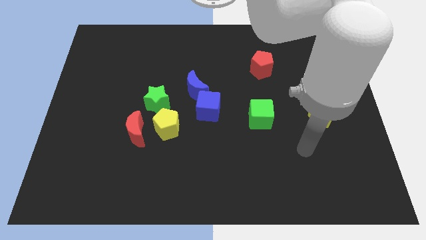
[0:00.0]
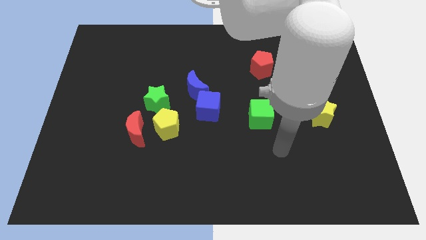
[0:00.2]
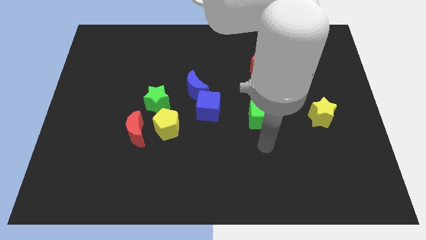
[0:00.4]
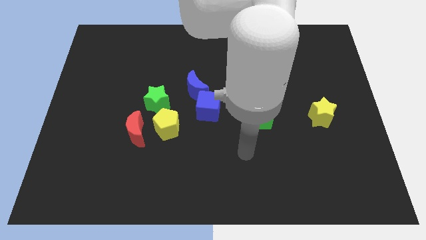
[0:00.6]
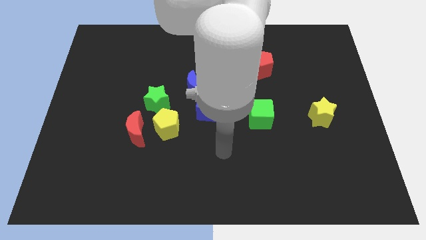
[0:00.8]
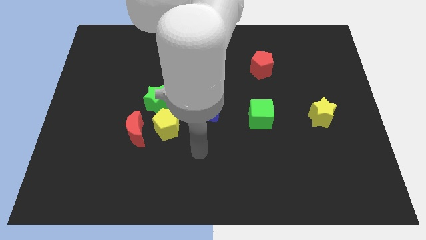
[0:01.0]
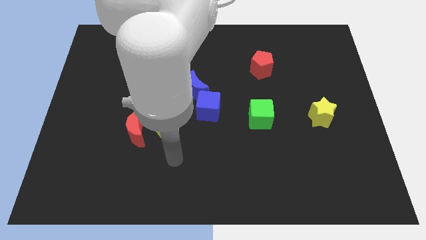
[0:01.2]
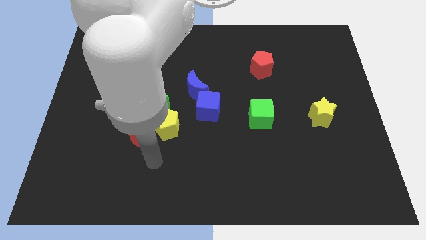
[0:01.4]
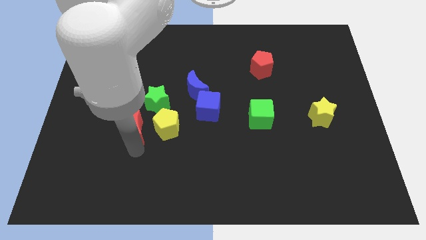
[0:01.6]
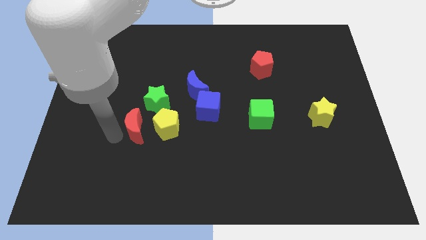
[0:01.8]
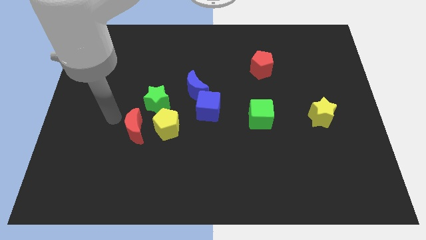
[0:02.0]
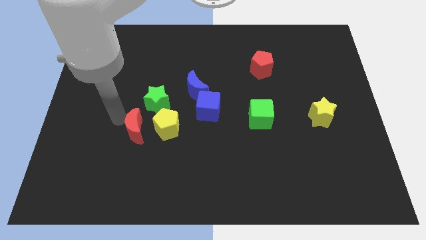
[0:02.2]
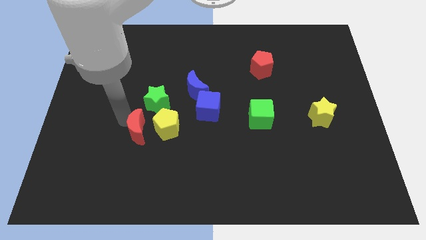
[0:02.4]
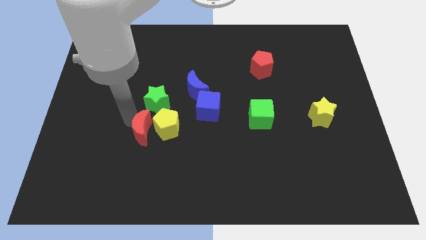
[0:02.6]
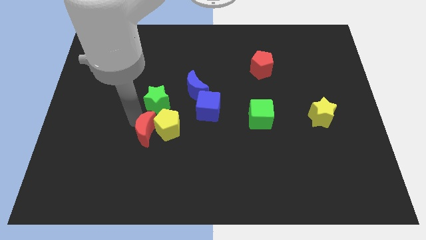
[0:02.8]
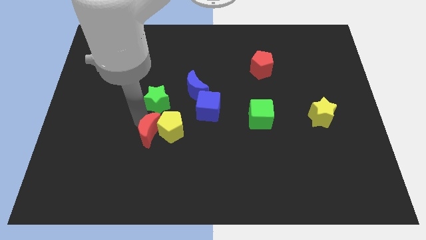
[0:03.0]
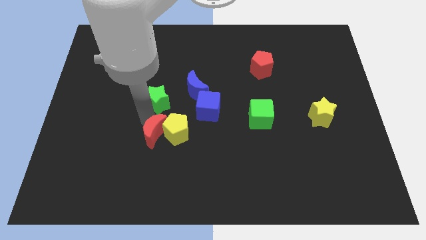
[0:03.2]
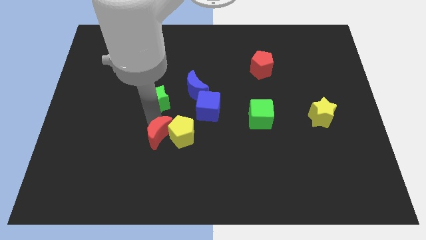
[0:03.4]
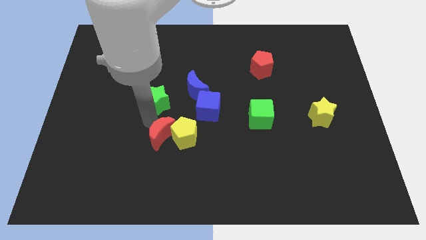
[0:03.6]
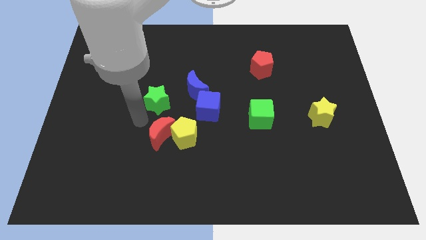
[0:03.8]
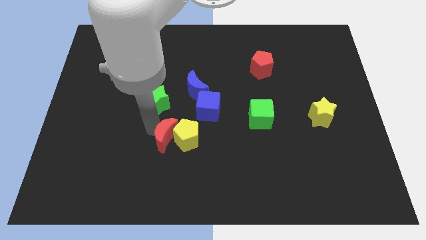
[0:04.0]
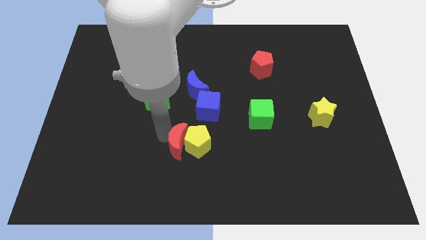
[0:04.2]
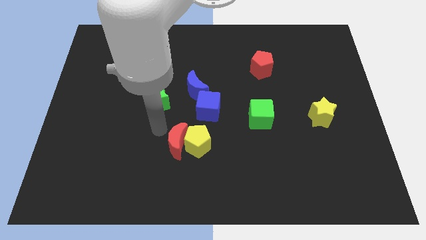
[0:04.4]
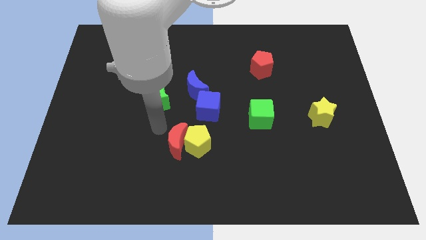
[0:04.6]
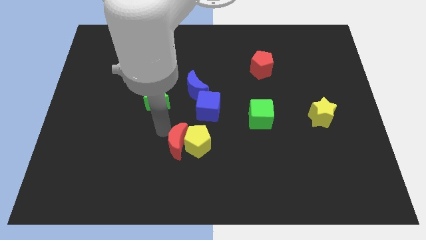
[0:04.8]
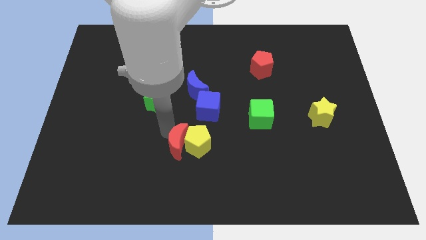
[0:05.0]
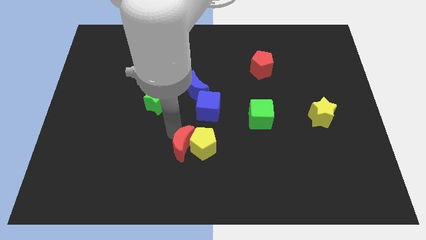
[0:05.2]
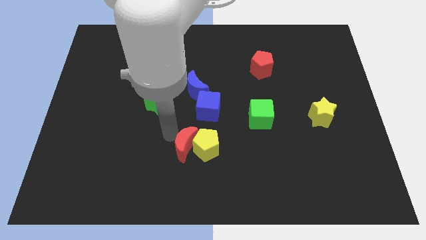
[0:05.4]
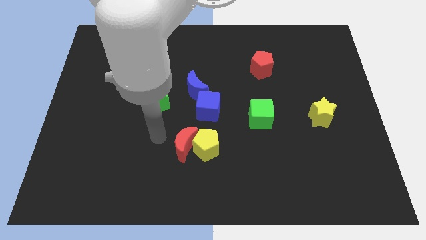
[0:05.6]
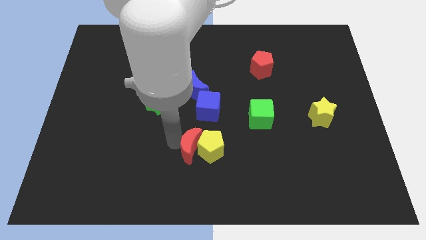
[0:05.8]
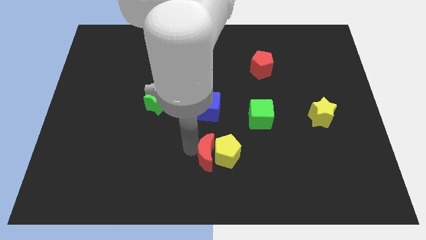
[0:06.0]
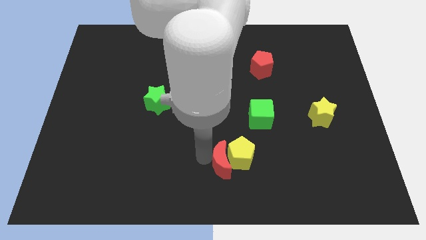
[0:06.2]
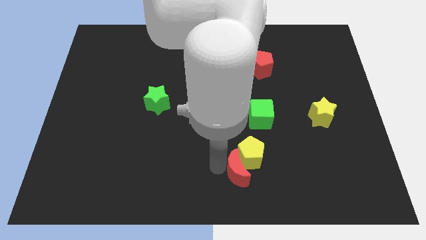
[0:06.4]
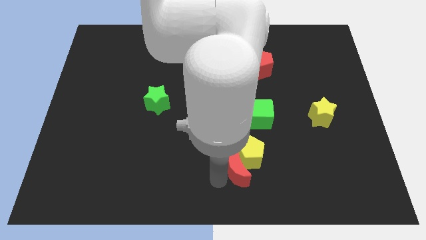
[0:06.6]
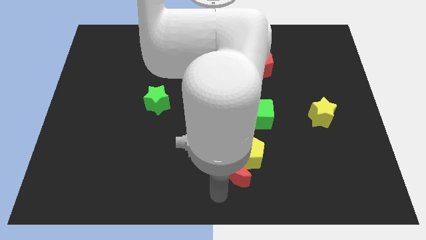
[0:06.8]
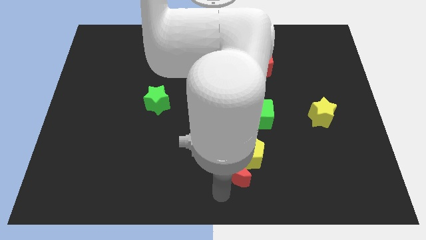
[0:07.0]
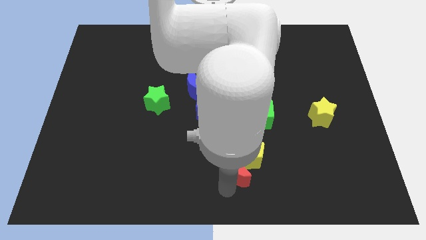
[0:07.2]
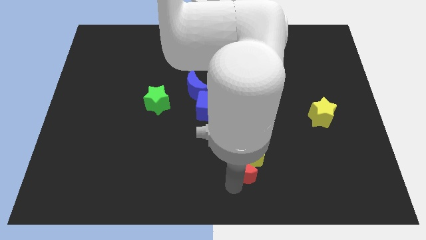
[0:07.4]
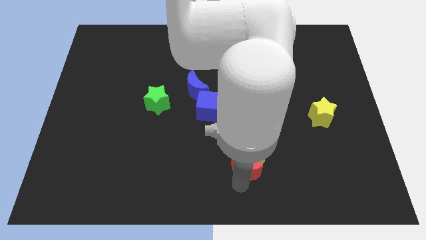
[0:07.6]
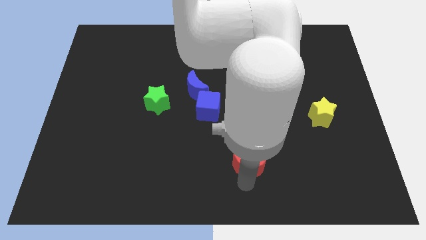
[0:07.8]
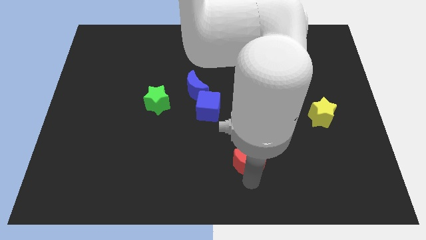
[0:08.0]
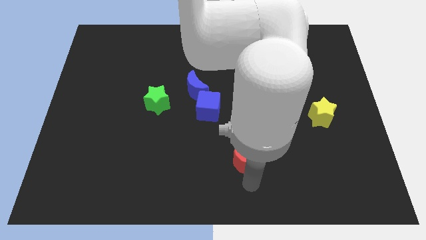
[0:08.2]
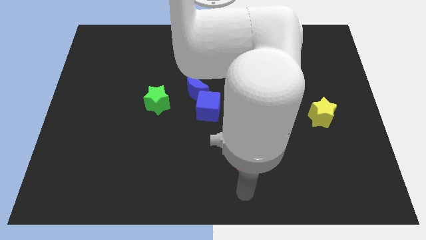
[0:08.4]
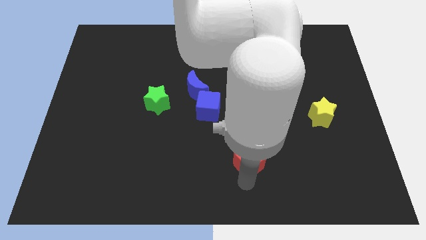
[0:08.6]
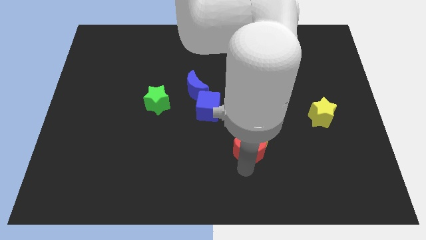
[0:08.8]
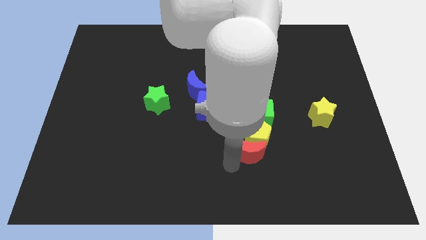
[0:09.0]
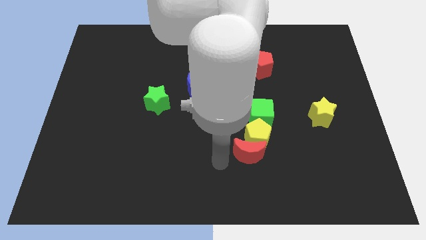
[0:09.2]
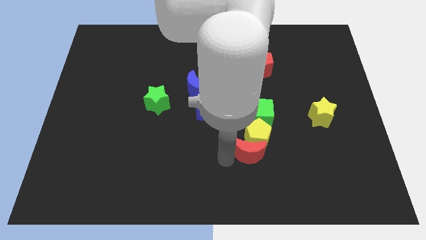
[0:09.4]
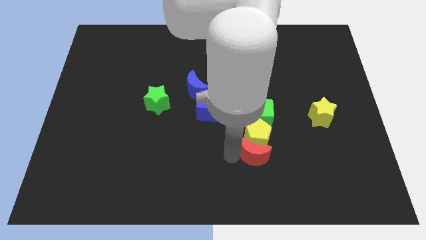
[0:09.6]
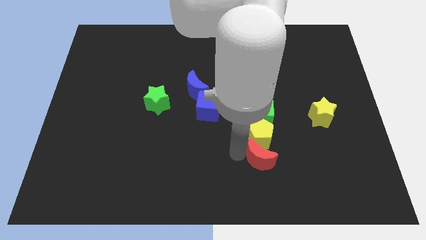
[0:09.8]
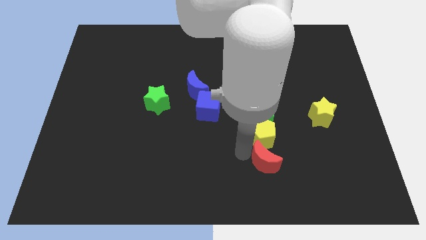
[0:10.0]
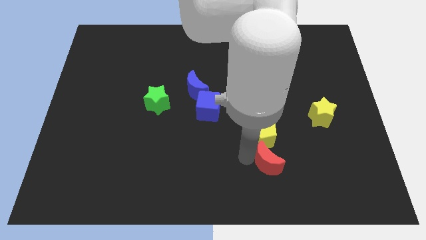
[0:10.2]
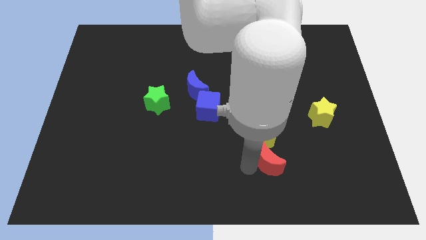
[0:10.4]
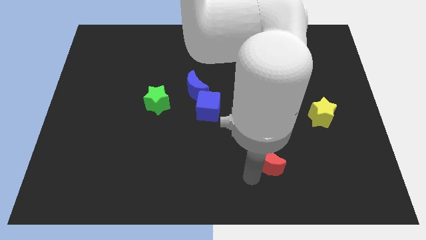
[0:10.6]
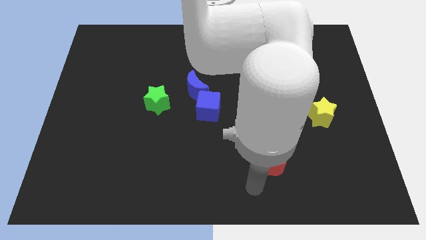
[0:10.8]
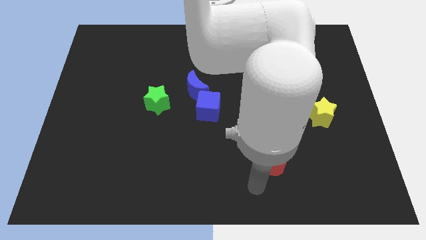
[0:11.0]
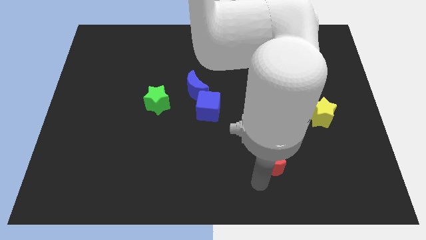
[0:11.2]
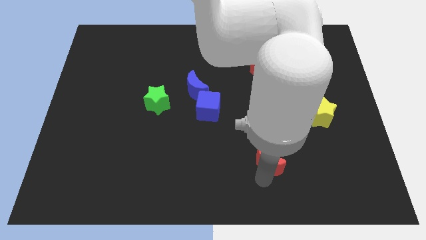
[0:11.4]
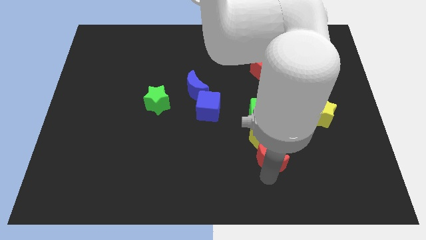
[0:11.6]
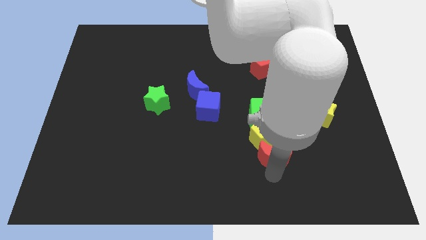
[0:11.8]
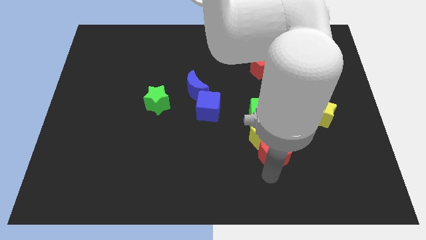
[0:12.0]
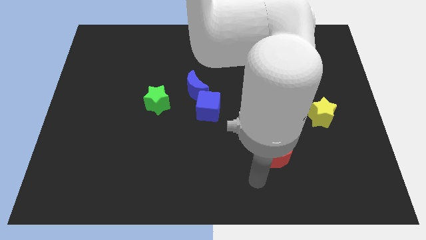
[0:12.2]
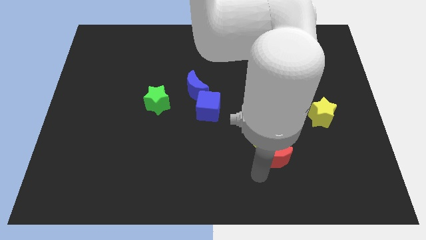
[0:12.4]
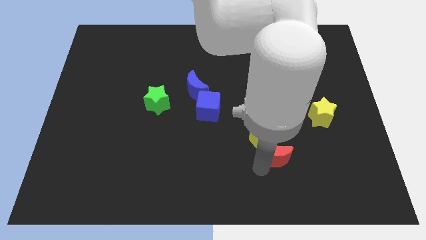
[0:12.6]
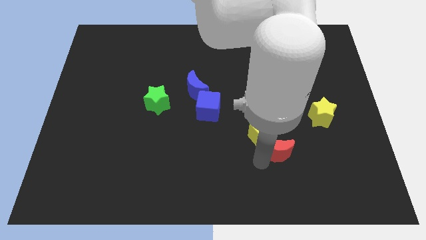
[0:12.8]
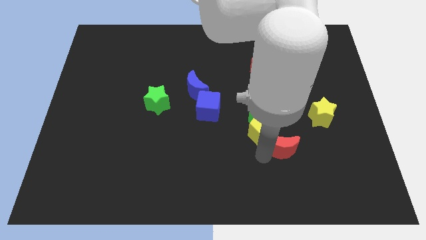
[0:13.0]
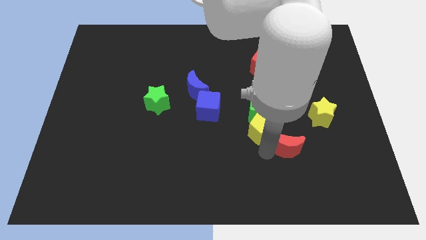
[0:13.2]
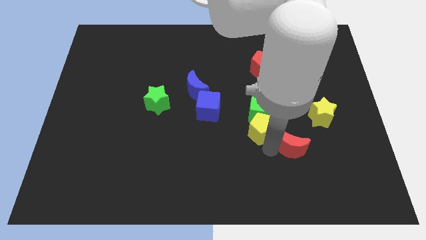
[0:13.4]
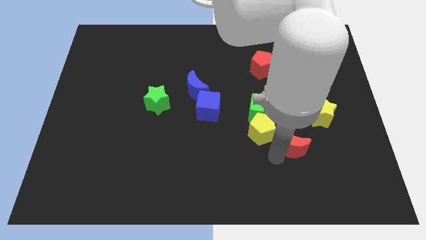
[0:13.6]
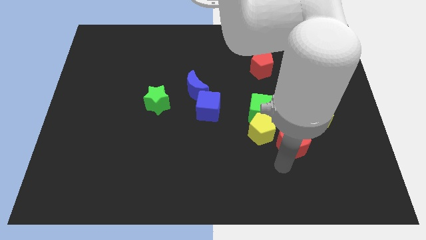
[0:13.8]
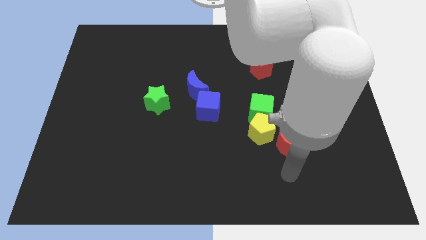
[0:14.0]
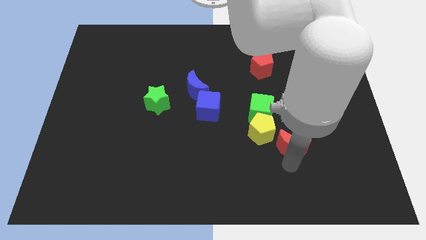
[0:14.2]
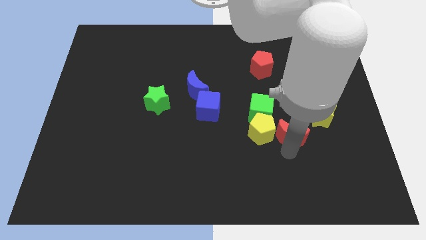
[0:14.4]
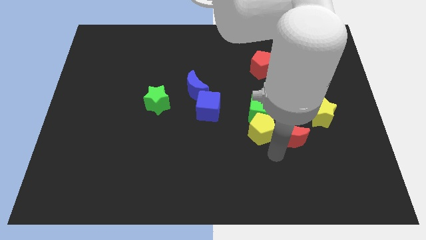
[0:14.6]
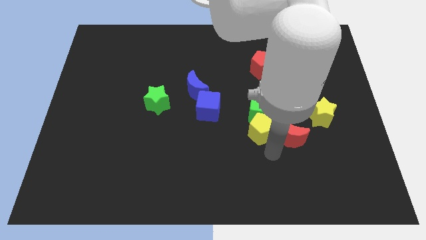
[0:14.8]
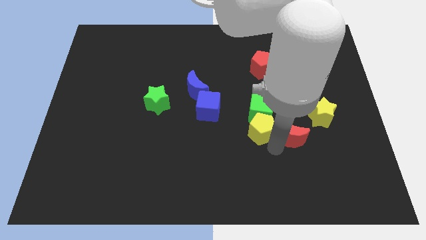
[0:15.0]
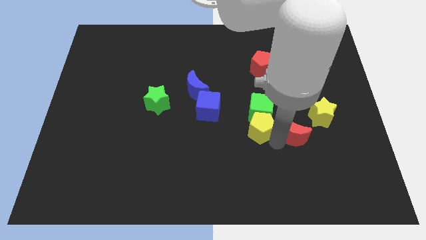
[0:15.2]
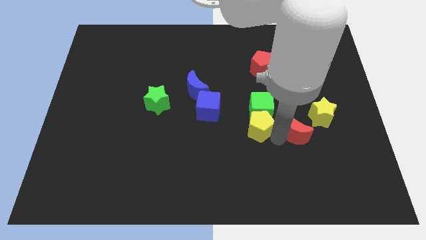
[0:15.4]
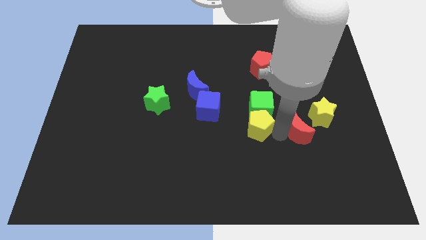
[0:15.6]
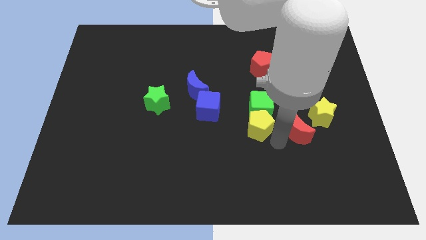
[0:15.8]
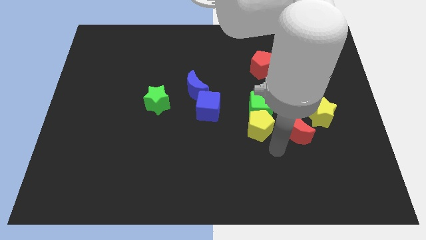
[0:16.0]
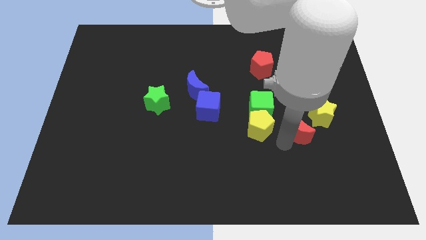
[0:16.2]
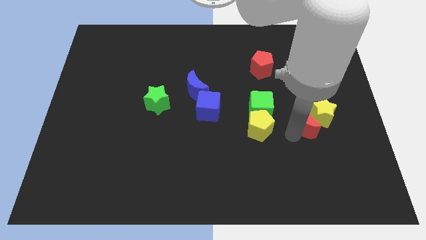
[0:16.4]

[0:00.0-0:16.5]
push the red moon close to the yellow star
